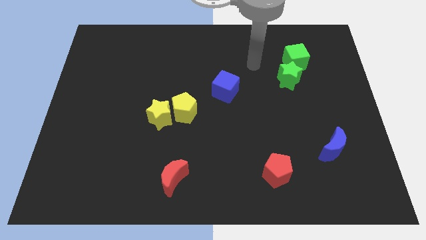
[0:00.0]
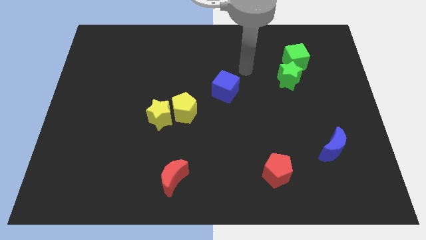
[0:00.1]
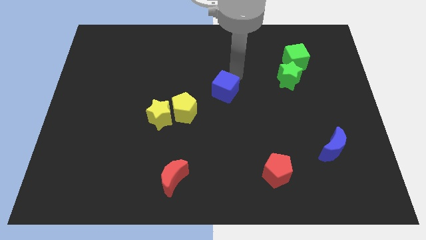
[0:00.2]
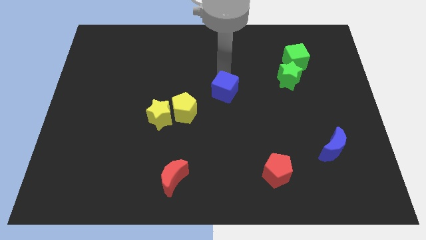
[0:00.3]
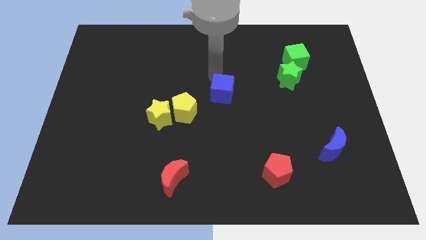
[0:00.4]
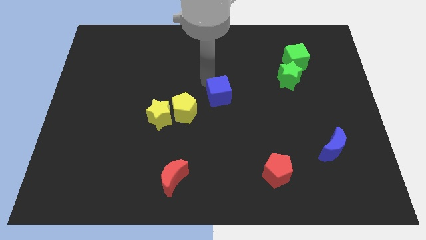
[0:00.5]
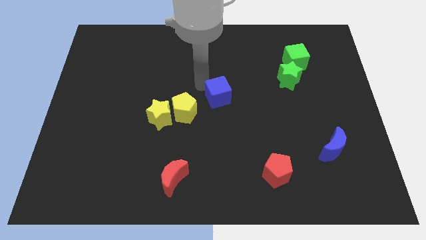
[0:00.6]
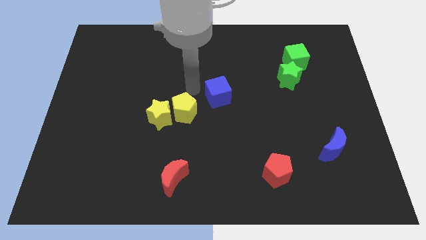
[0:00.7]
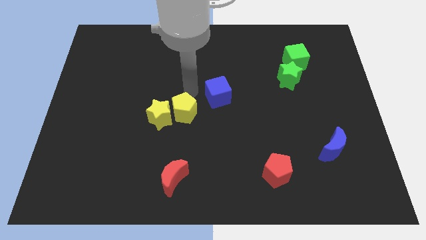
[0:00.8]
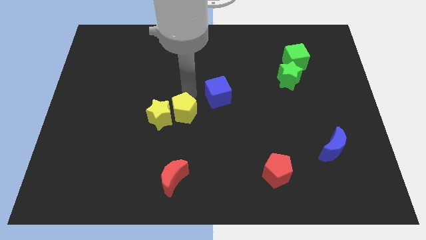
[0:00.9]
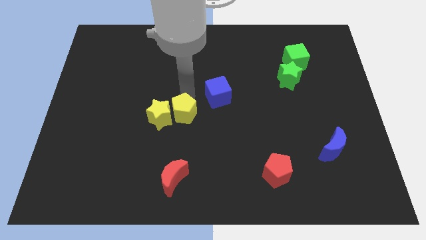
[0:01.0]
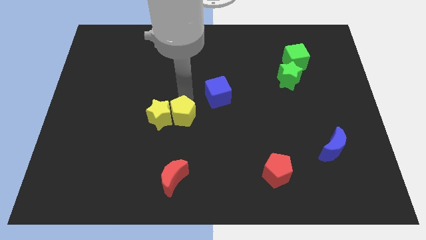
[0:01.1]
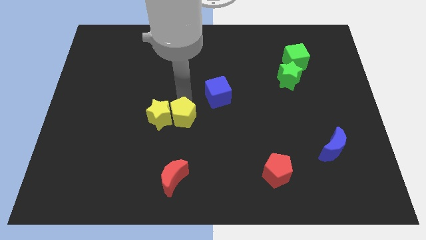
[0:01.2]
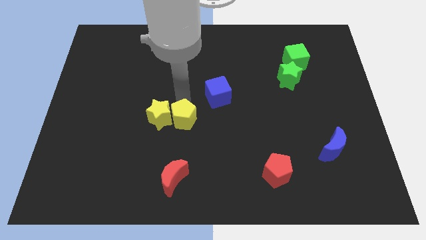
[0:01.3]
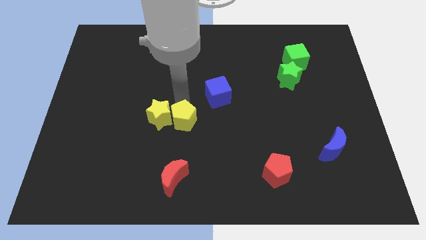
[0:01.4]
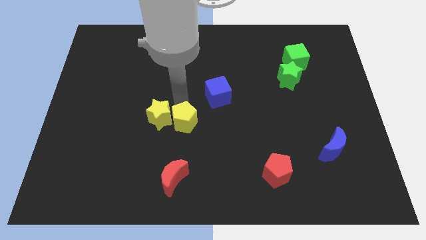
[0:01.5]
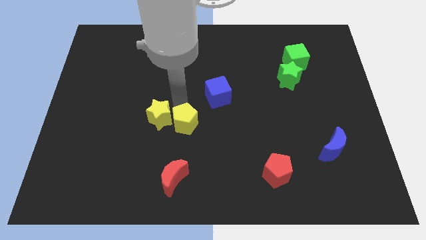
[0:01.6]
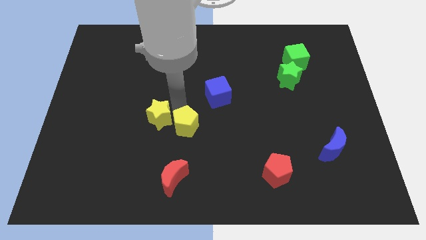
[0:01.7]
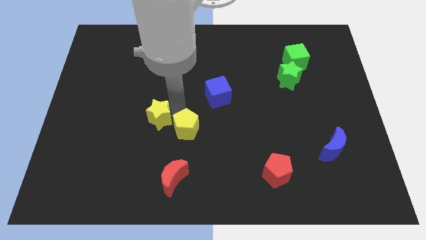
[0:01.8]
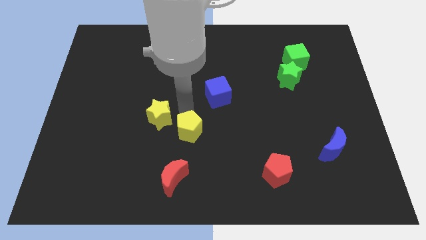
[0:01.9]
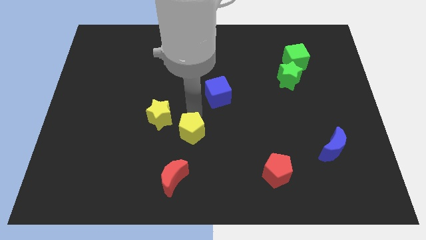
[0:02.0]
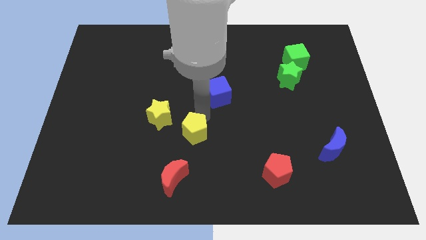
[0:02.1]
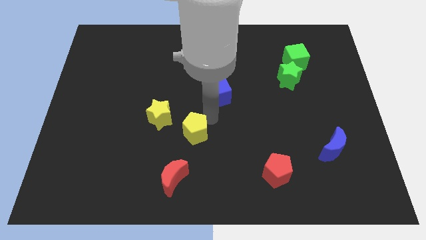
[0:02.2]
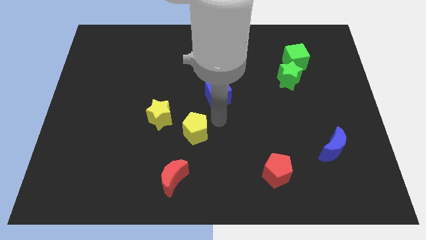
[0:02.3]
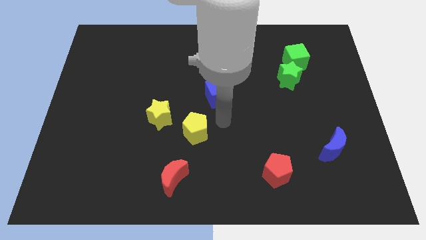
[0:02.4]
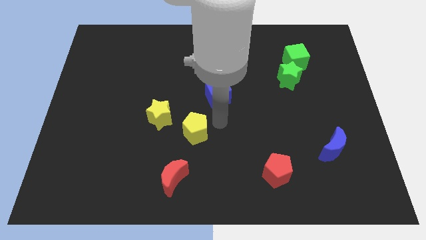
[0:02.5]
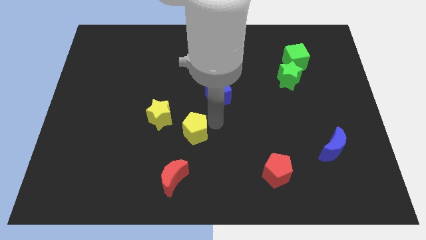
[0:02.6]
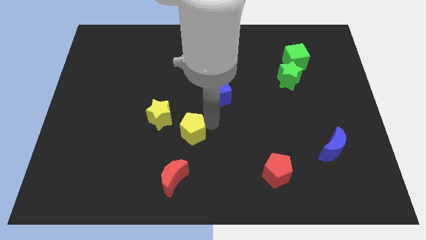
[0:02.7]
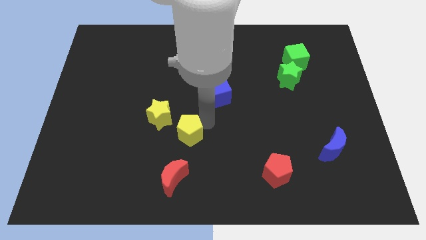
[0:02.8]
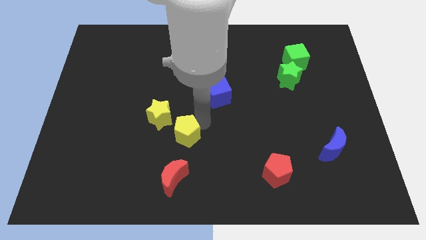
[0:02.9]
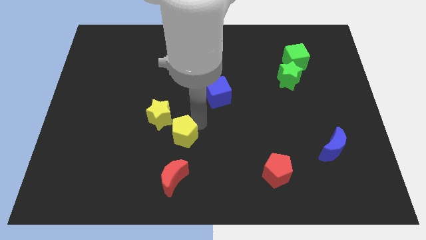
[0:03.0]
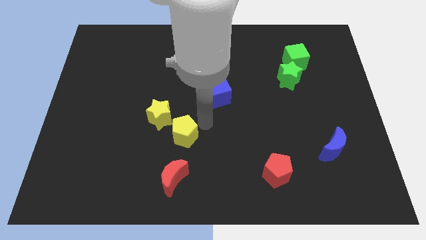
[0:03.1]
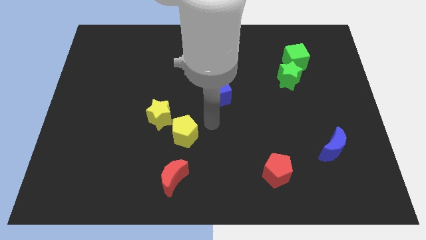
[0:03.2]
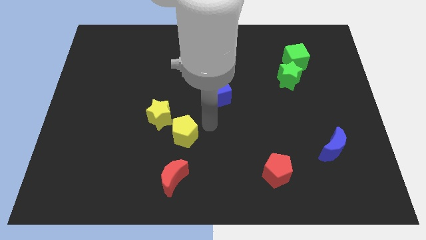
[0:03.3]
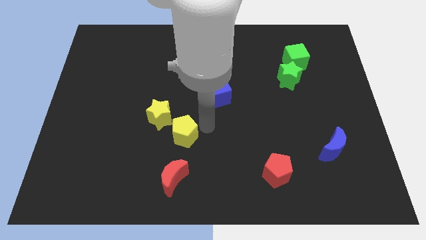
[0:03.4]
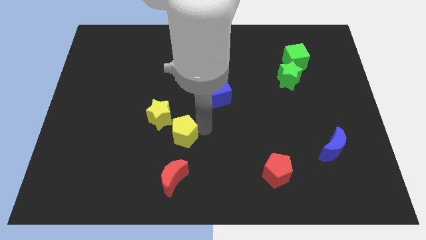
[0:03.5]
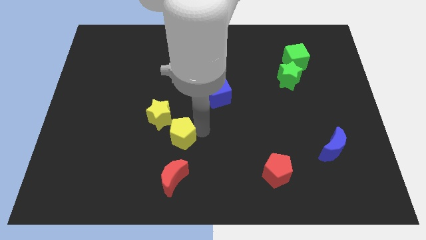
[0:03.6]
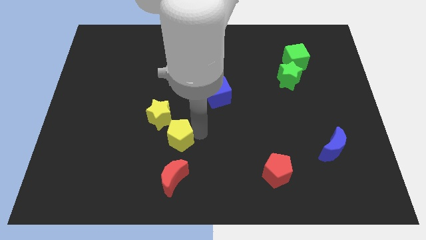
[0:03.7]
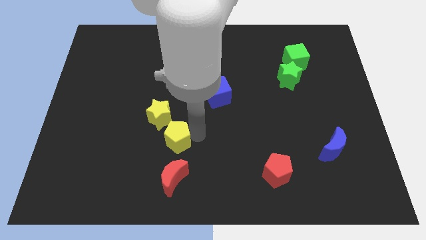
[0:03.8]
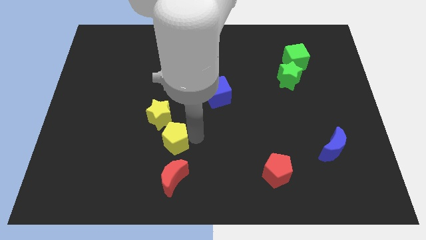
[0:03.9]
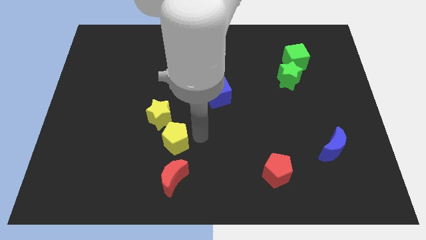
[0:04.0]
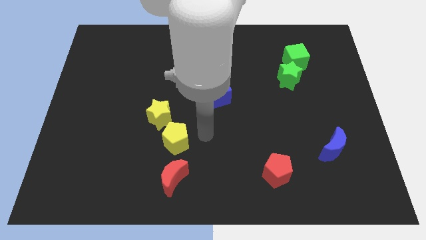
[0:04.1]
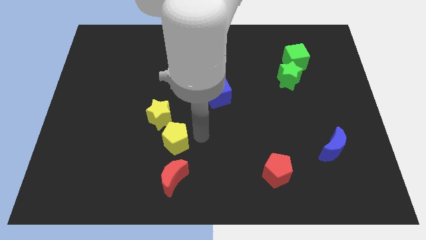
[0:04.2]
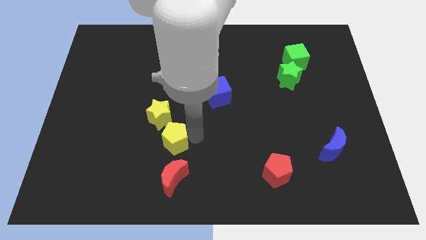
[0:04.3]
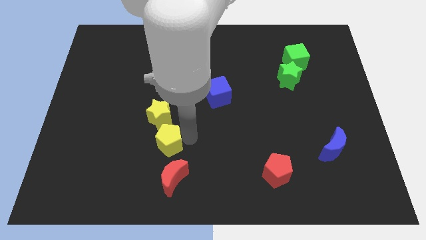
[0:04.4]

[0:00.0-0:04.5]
slightly push the yellow pentagon downwards and then left

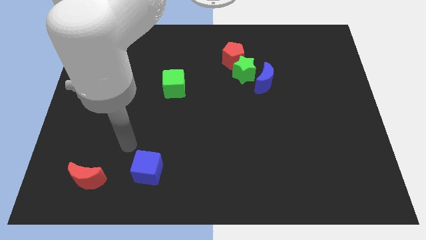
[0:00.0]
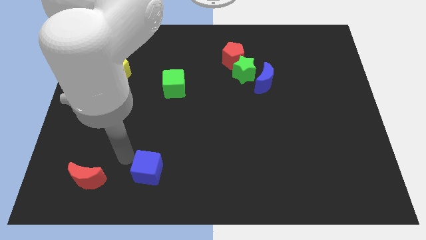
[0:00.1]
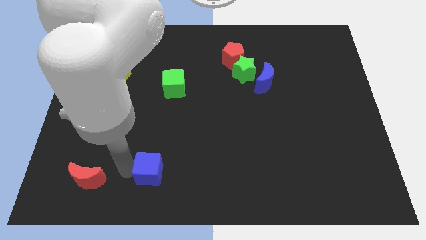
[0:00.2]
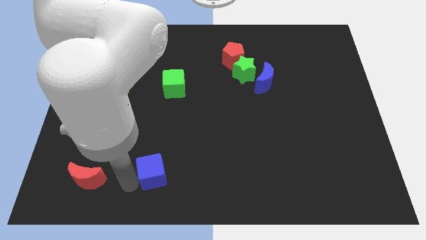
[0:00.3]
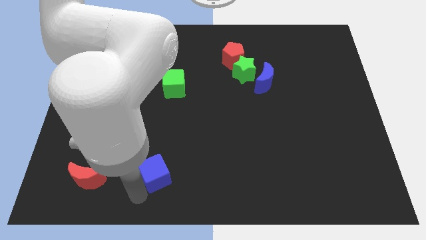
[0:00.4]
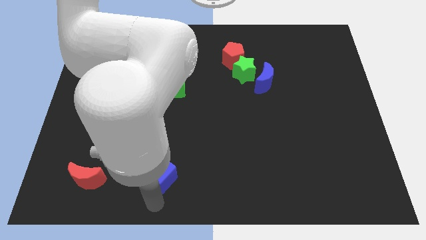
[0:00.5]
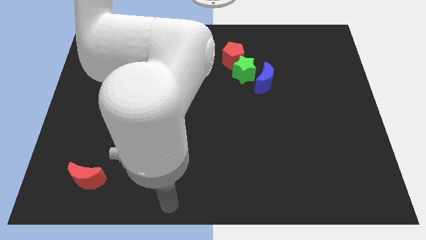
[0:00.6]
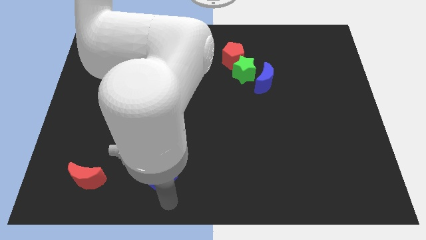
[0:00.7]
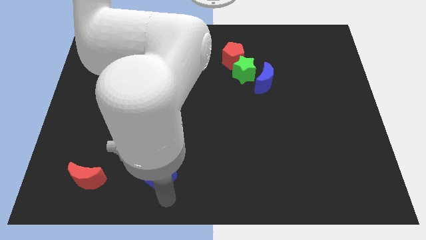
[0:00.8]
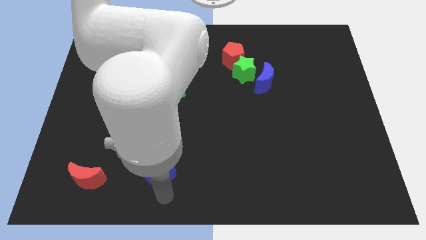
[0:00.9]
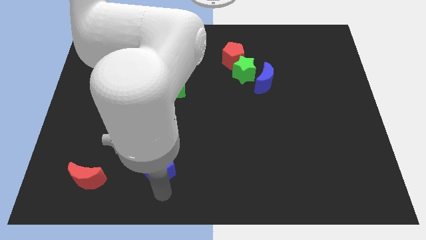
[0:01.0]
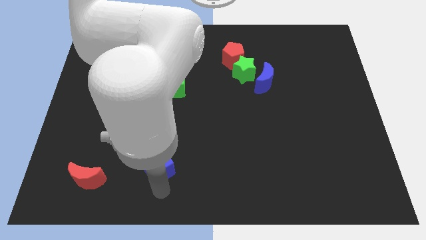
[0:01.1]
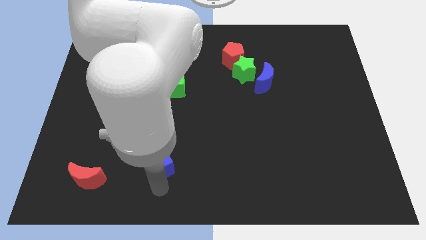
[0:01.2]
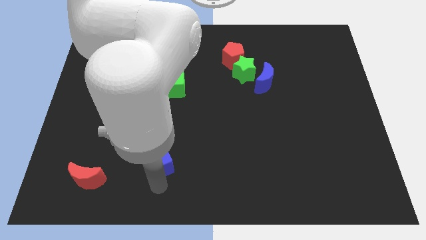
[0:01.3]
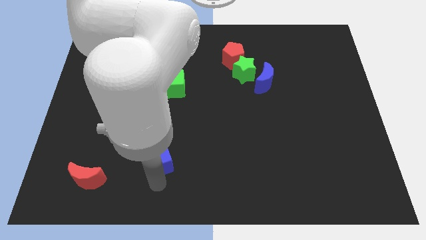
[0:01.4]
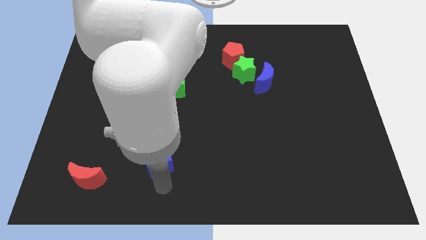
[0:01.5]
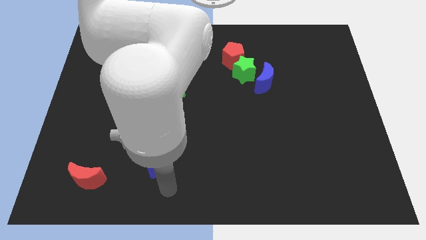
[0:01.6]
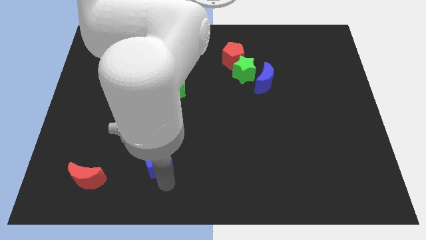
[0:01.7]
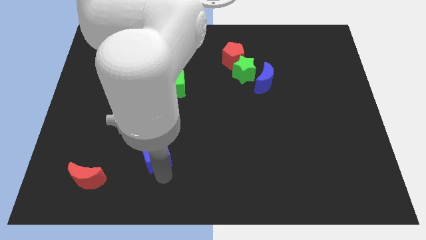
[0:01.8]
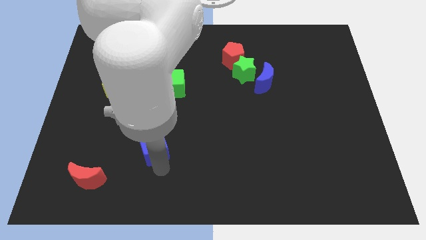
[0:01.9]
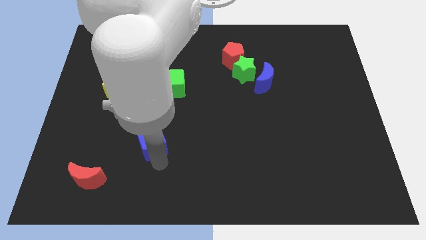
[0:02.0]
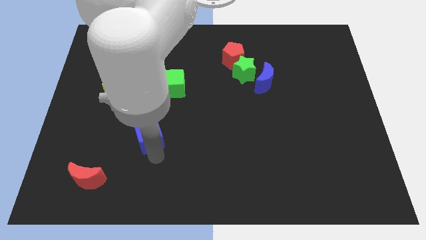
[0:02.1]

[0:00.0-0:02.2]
slightly move the blue cube up

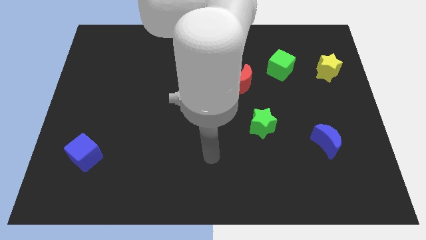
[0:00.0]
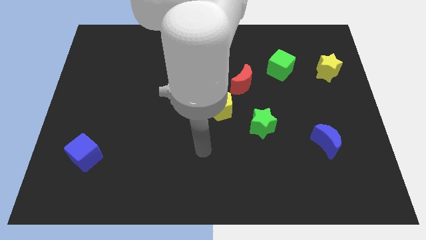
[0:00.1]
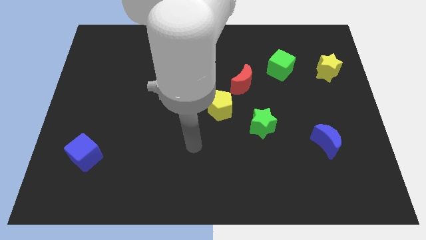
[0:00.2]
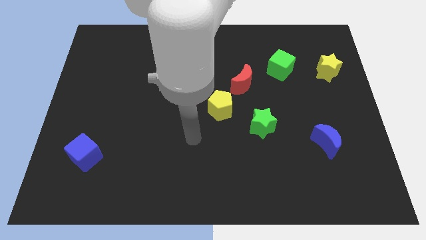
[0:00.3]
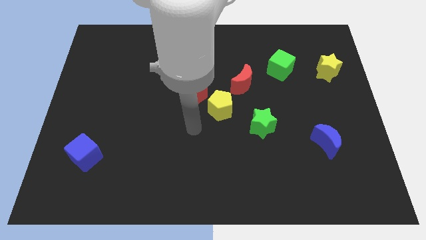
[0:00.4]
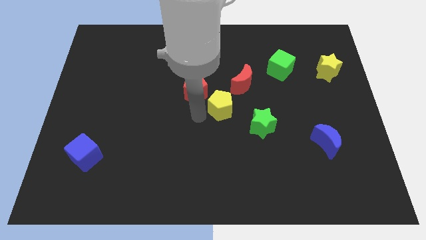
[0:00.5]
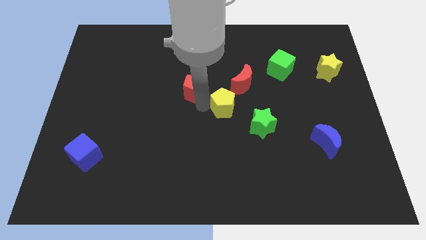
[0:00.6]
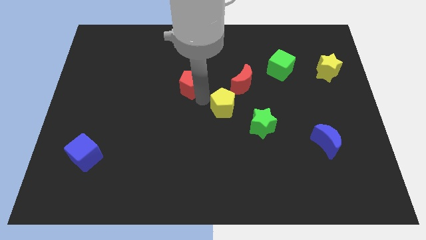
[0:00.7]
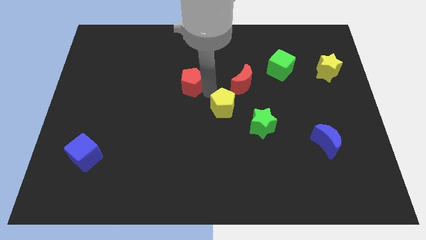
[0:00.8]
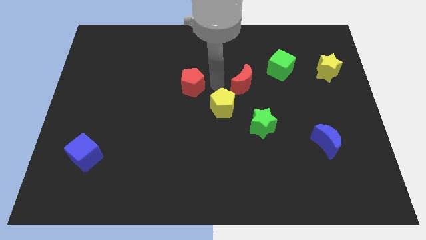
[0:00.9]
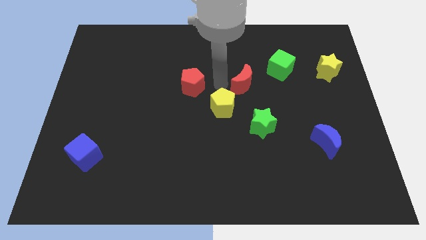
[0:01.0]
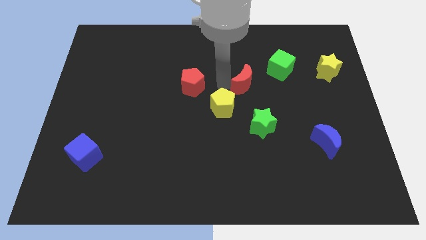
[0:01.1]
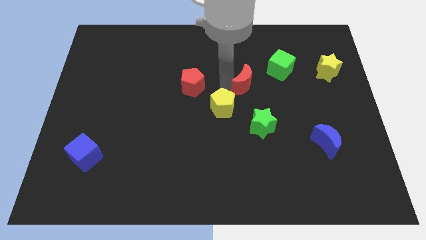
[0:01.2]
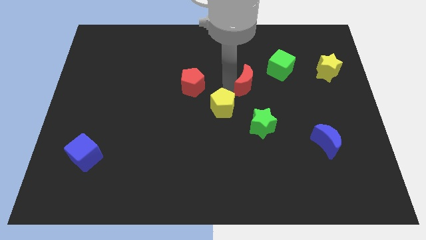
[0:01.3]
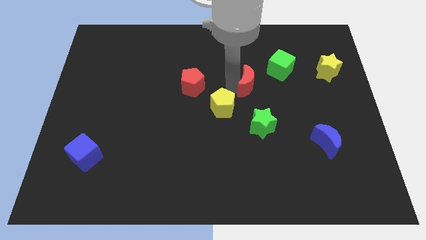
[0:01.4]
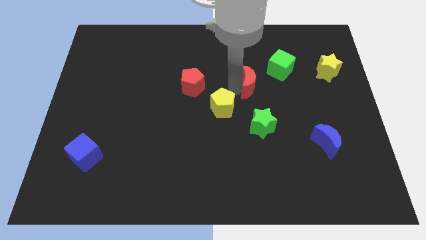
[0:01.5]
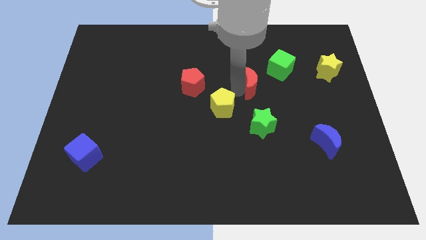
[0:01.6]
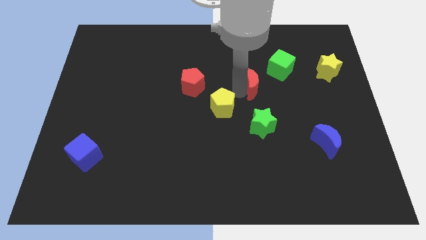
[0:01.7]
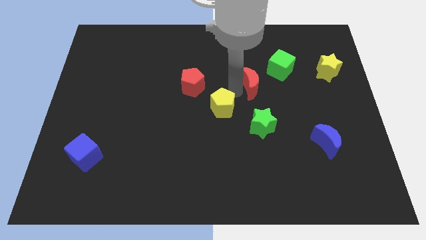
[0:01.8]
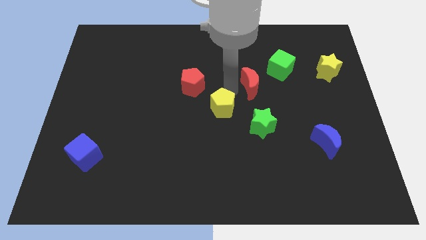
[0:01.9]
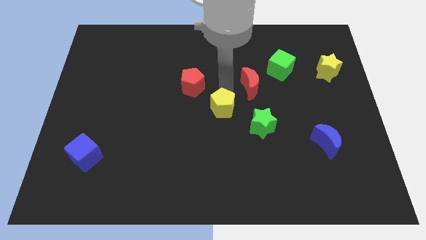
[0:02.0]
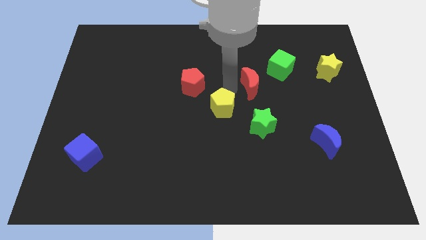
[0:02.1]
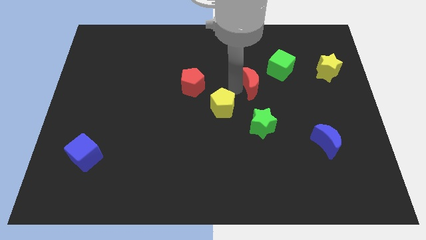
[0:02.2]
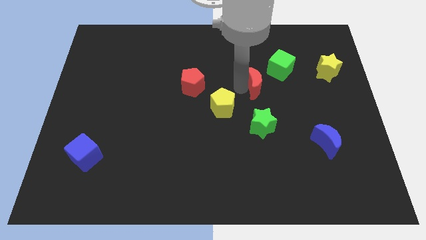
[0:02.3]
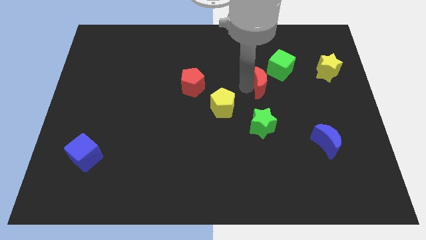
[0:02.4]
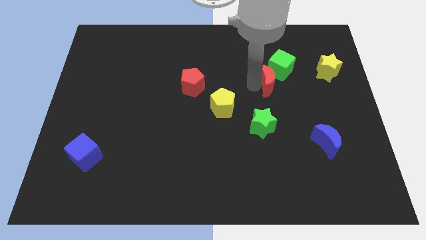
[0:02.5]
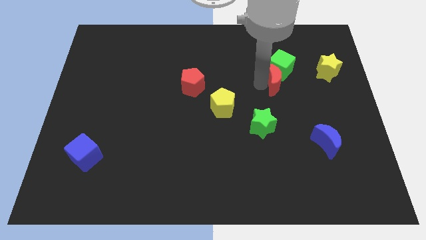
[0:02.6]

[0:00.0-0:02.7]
move the red moon a little right
